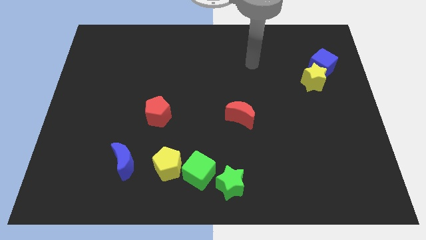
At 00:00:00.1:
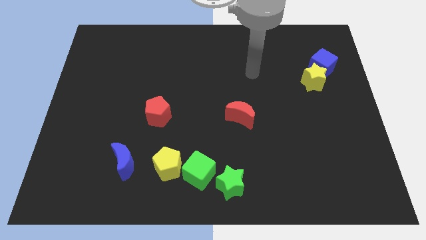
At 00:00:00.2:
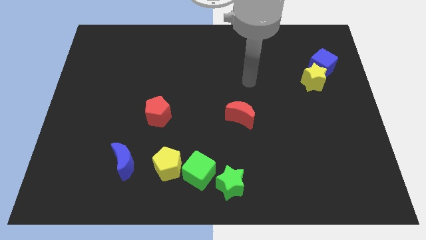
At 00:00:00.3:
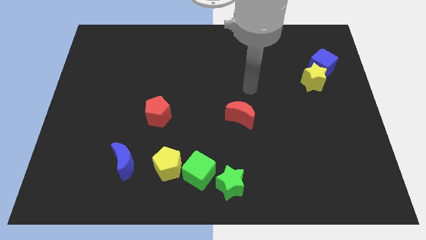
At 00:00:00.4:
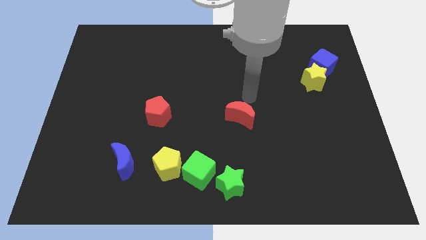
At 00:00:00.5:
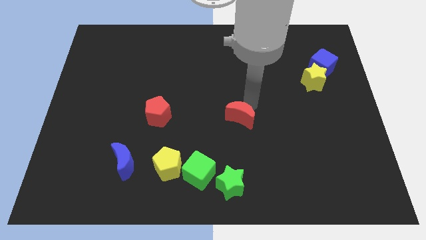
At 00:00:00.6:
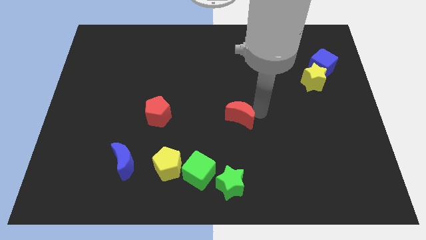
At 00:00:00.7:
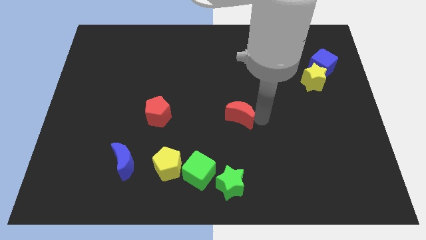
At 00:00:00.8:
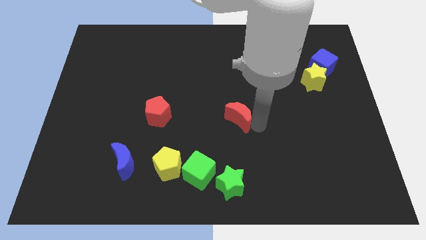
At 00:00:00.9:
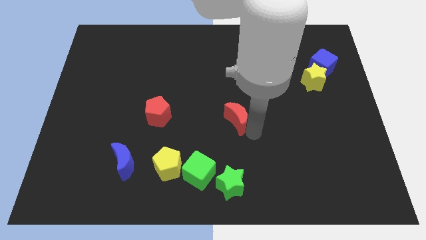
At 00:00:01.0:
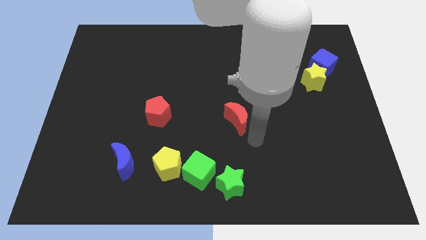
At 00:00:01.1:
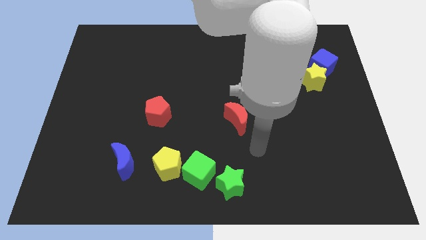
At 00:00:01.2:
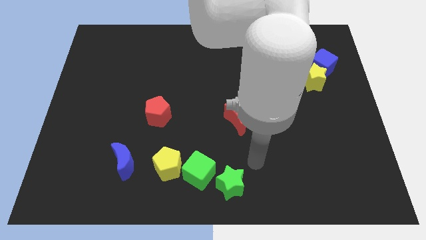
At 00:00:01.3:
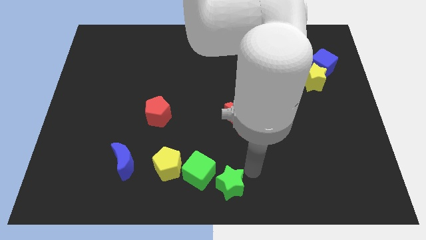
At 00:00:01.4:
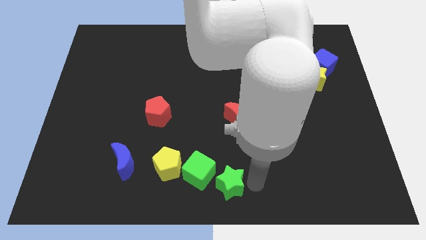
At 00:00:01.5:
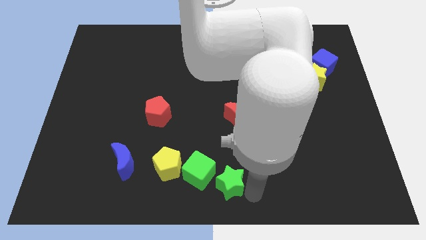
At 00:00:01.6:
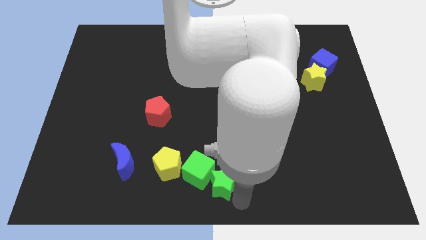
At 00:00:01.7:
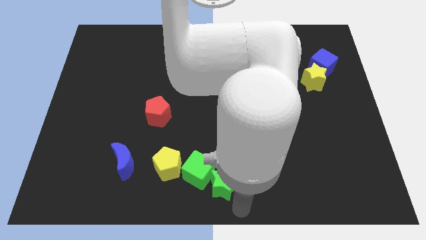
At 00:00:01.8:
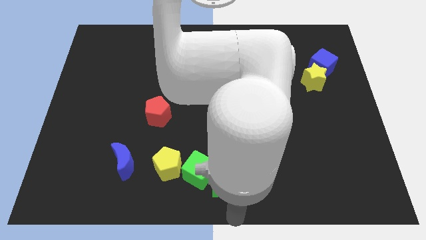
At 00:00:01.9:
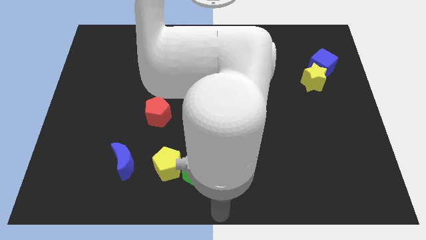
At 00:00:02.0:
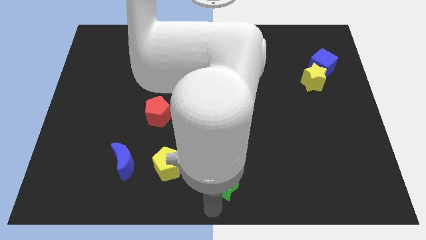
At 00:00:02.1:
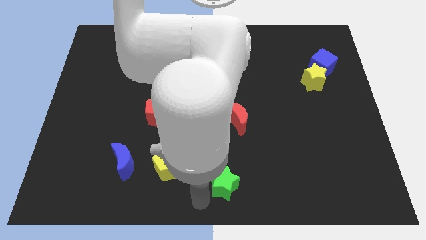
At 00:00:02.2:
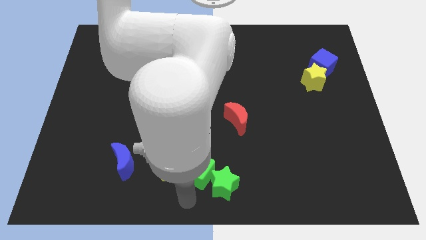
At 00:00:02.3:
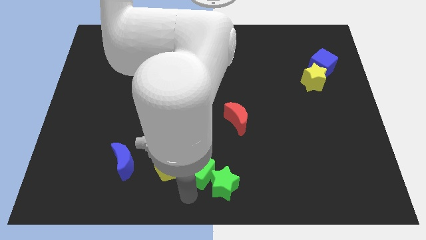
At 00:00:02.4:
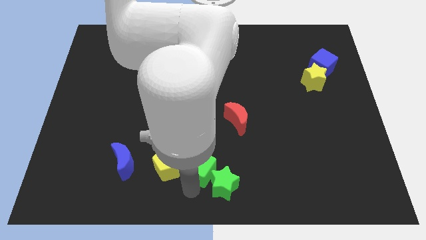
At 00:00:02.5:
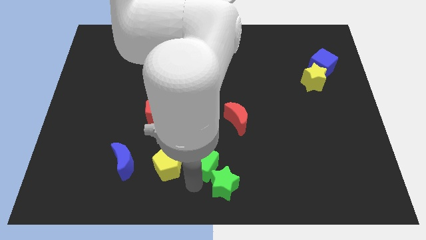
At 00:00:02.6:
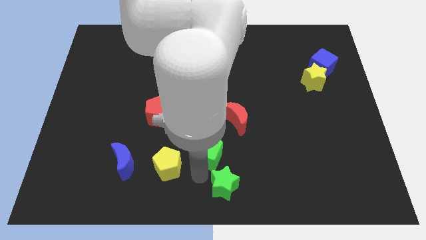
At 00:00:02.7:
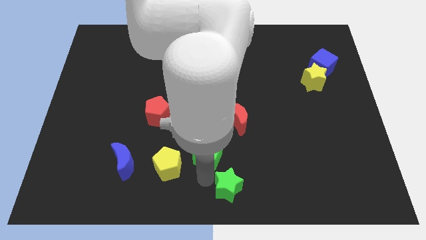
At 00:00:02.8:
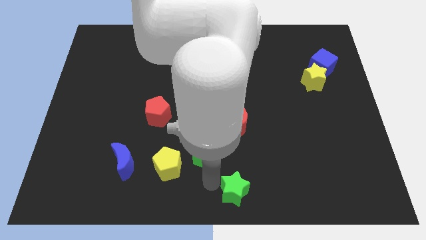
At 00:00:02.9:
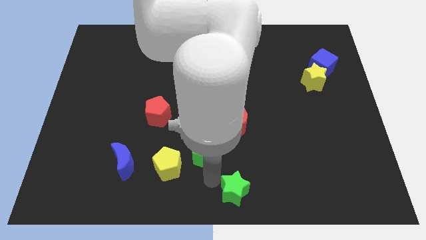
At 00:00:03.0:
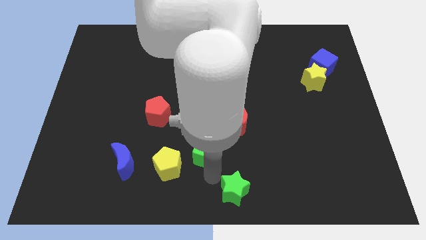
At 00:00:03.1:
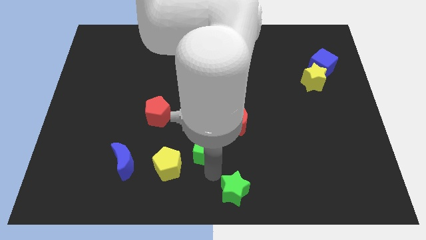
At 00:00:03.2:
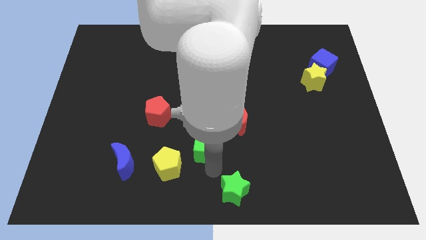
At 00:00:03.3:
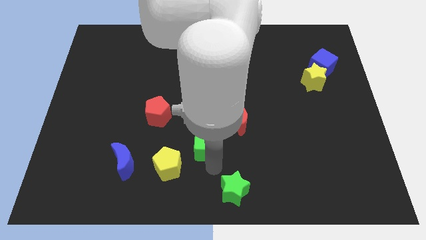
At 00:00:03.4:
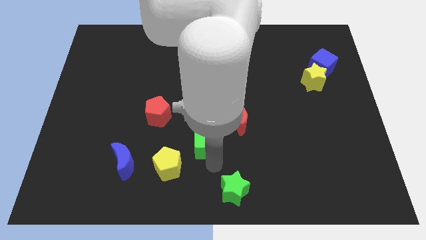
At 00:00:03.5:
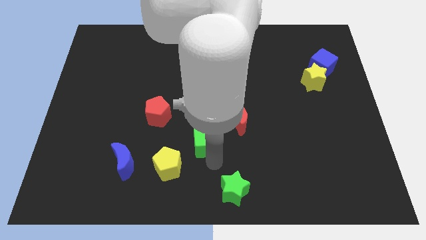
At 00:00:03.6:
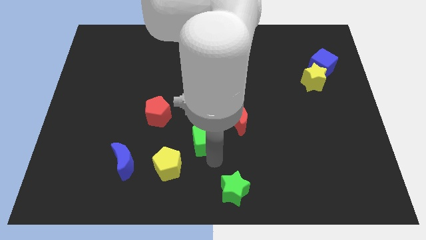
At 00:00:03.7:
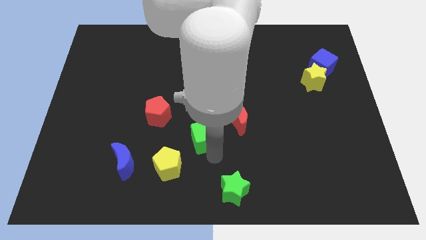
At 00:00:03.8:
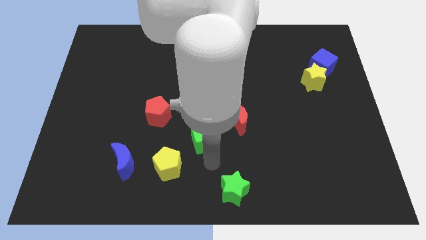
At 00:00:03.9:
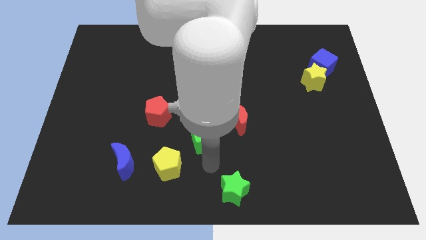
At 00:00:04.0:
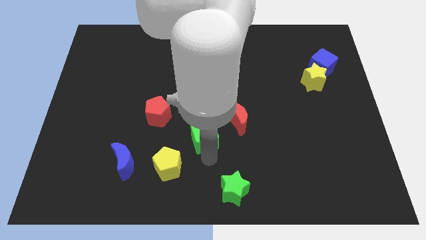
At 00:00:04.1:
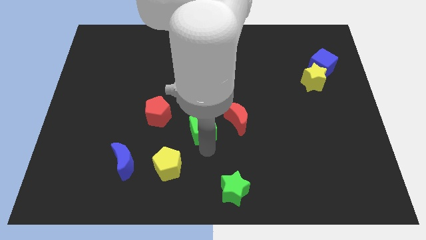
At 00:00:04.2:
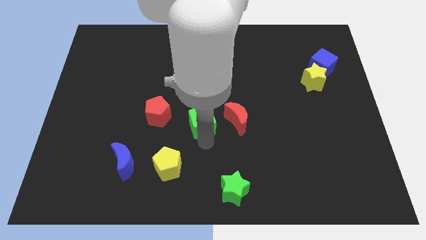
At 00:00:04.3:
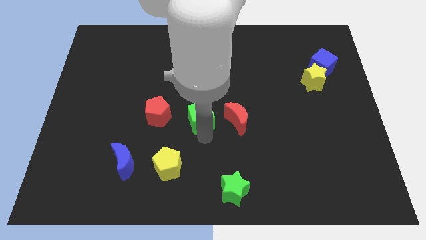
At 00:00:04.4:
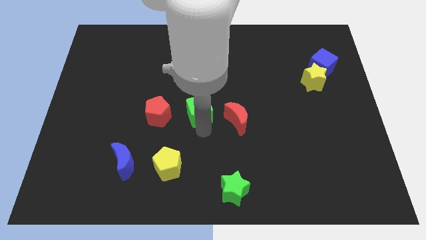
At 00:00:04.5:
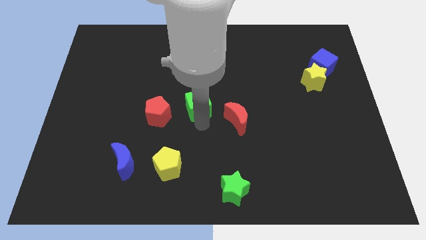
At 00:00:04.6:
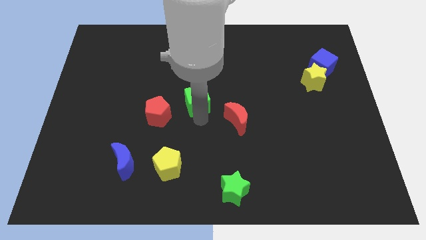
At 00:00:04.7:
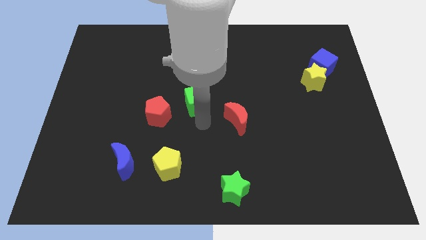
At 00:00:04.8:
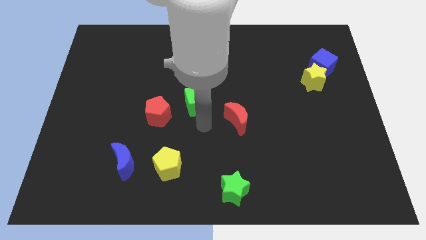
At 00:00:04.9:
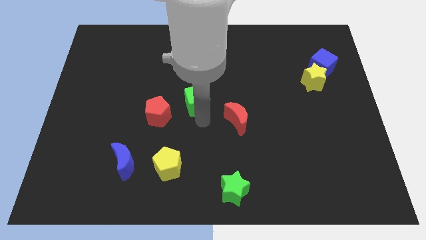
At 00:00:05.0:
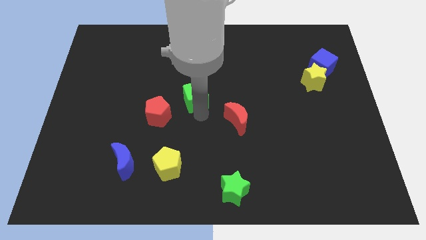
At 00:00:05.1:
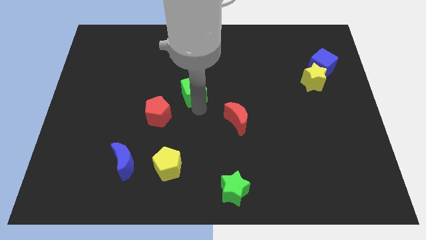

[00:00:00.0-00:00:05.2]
slide the green cube up

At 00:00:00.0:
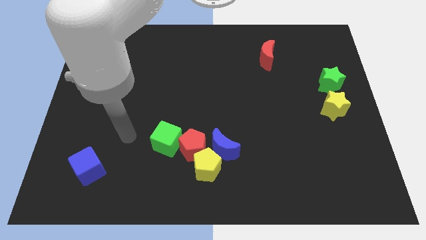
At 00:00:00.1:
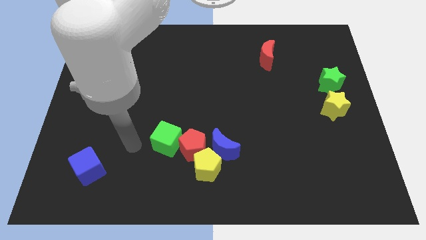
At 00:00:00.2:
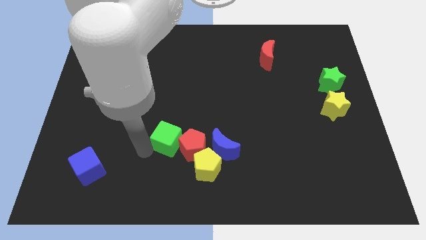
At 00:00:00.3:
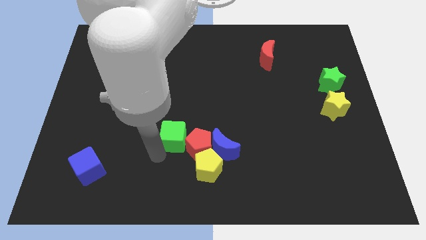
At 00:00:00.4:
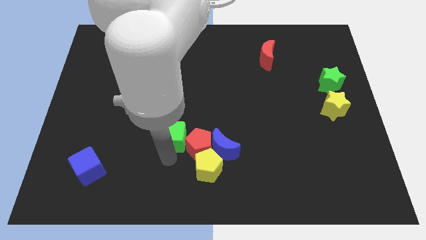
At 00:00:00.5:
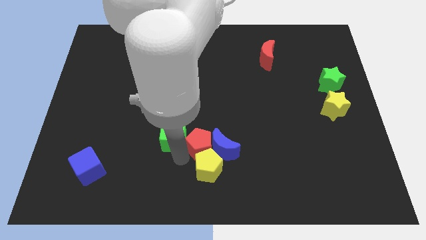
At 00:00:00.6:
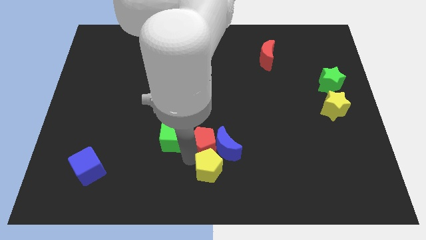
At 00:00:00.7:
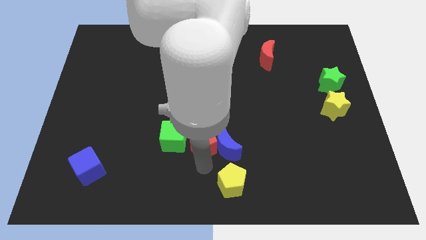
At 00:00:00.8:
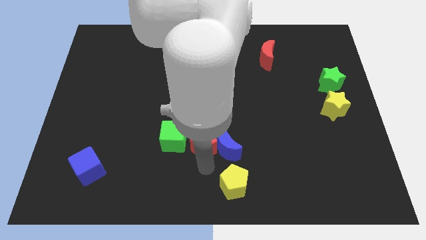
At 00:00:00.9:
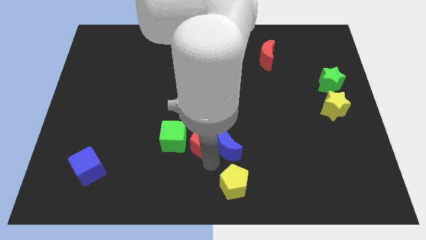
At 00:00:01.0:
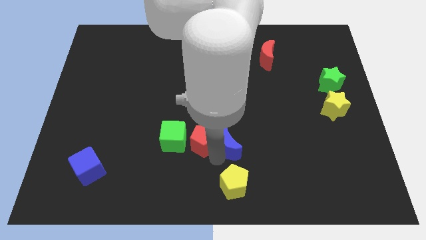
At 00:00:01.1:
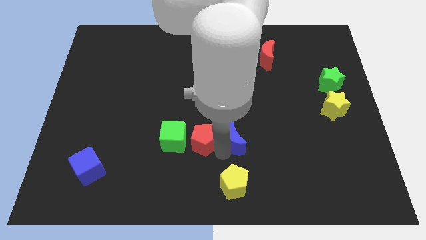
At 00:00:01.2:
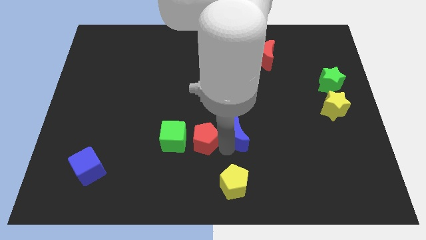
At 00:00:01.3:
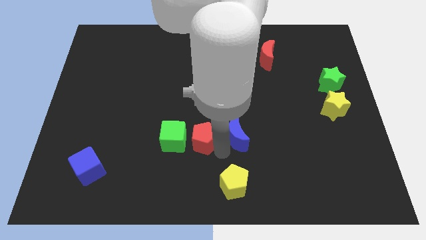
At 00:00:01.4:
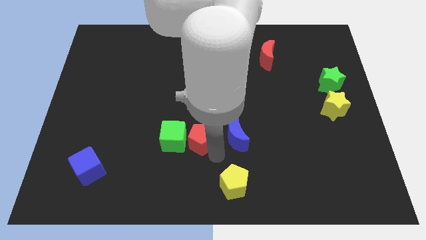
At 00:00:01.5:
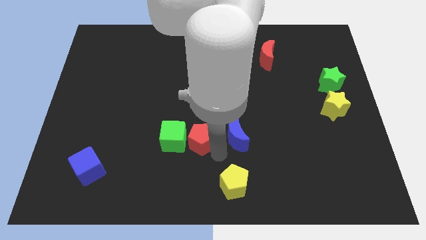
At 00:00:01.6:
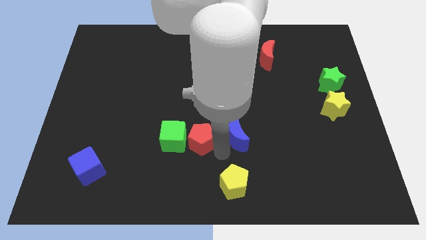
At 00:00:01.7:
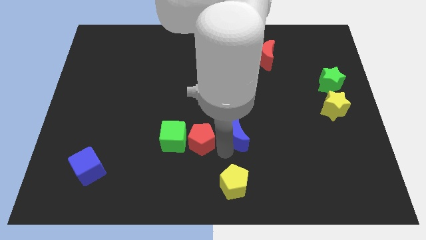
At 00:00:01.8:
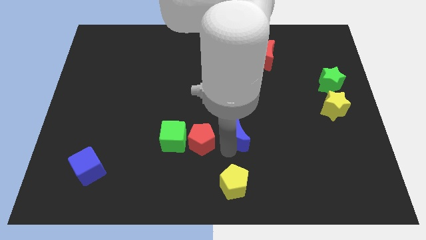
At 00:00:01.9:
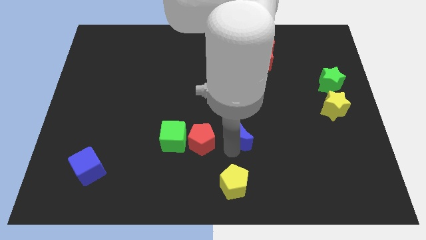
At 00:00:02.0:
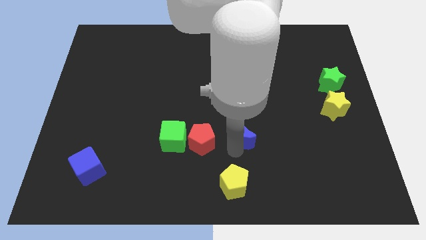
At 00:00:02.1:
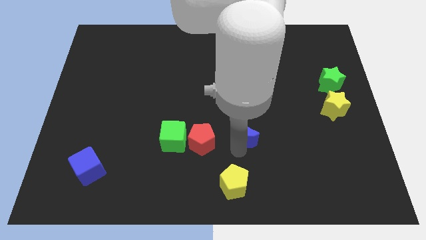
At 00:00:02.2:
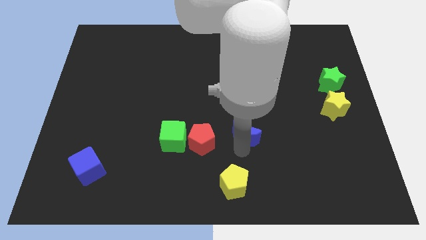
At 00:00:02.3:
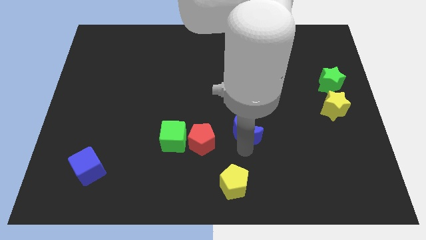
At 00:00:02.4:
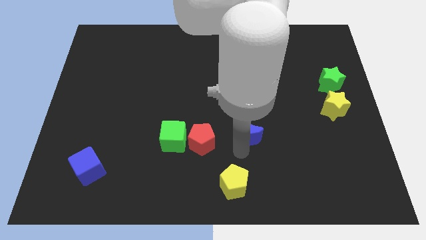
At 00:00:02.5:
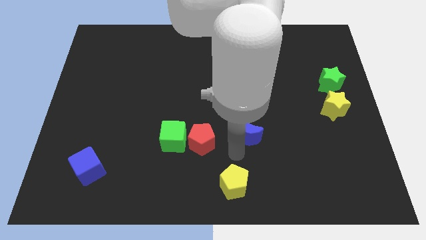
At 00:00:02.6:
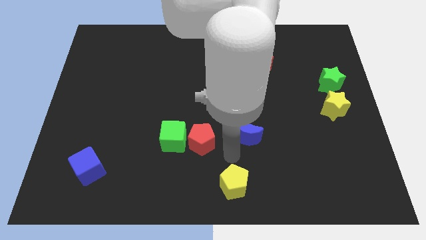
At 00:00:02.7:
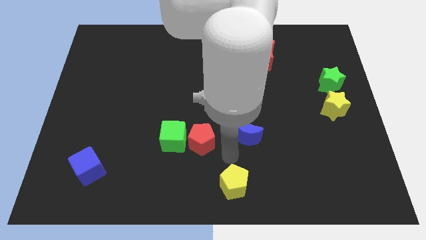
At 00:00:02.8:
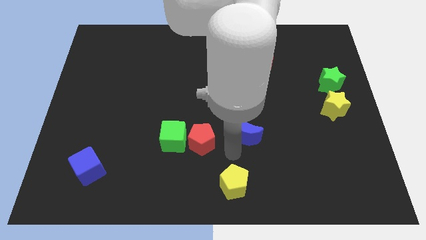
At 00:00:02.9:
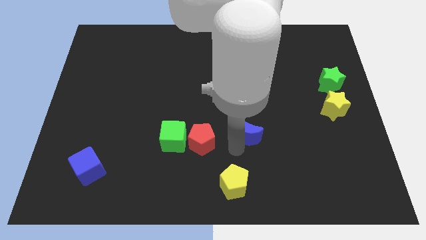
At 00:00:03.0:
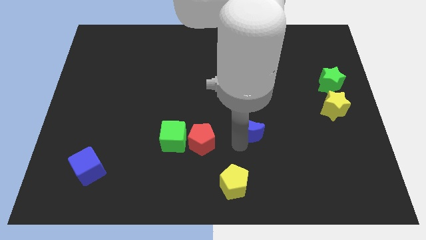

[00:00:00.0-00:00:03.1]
move the blue moon diagonally up and right a little bit
